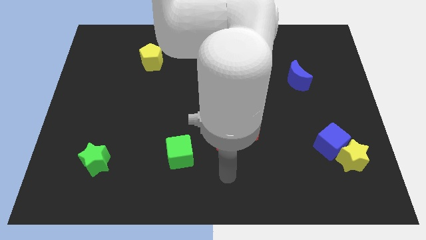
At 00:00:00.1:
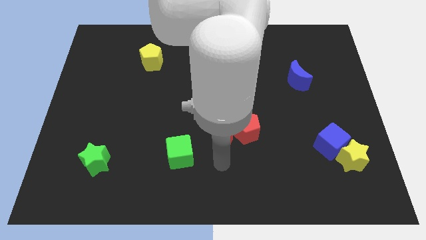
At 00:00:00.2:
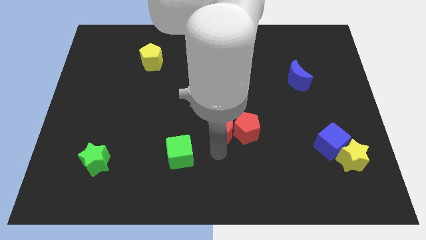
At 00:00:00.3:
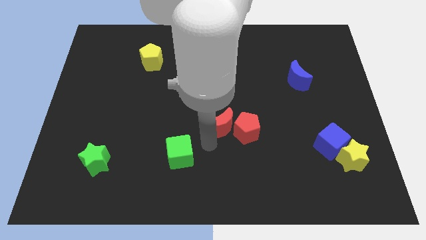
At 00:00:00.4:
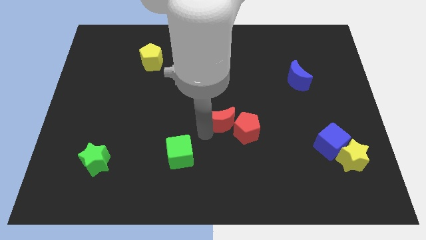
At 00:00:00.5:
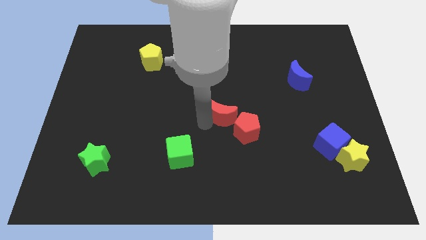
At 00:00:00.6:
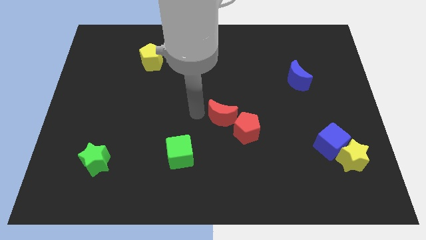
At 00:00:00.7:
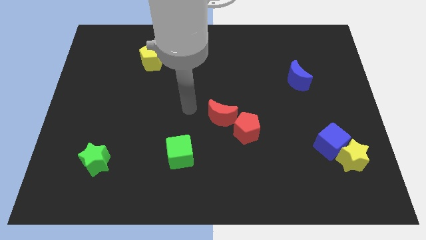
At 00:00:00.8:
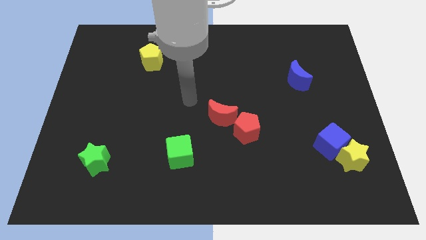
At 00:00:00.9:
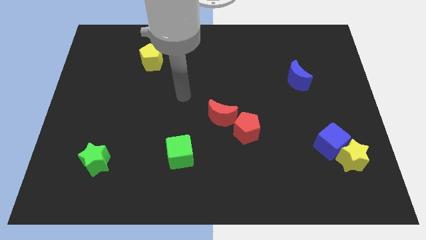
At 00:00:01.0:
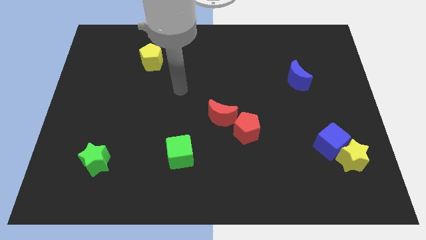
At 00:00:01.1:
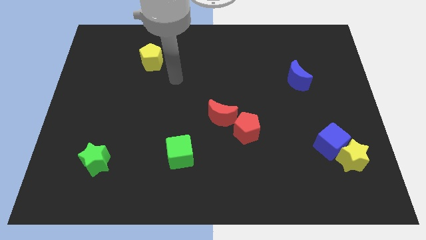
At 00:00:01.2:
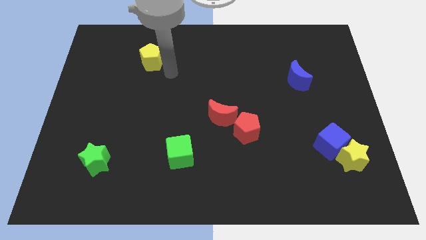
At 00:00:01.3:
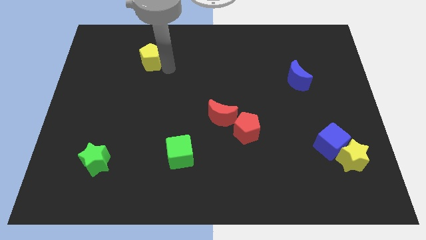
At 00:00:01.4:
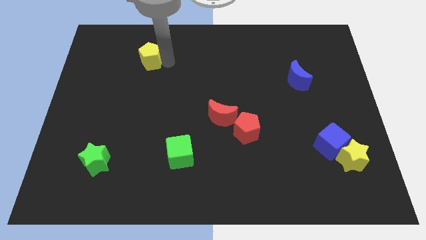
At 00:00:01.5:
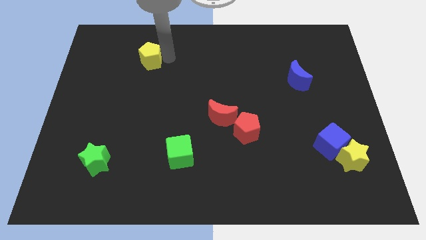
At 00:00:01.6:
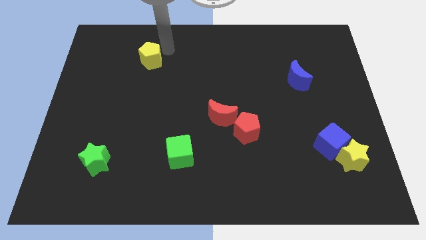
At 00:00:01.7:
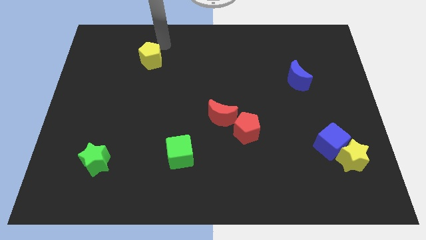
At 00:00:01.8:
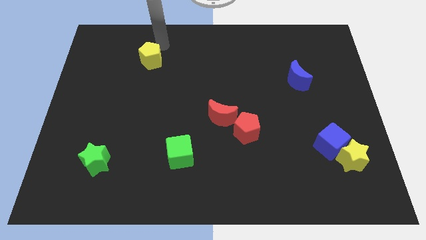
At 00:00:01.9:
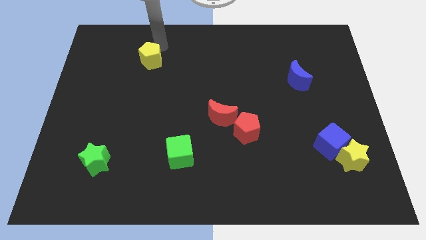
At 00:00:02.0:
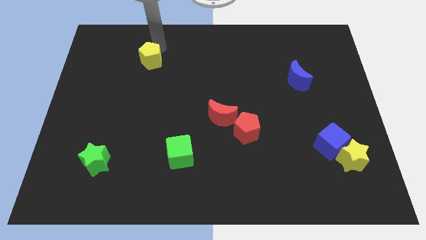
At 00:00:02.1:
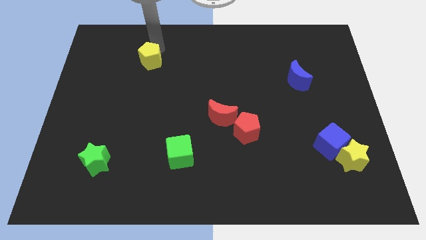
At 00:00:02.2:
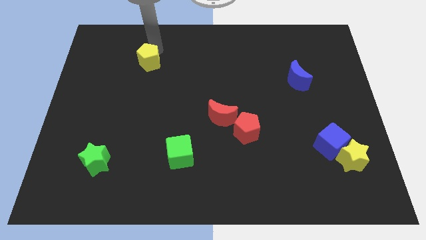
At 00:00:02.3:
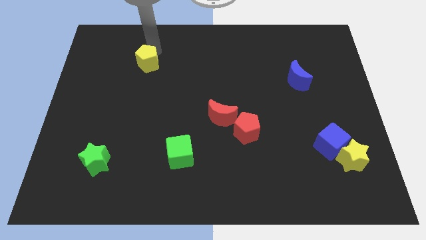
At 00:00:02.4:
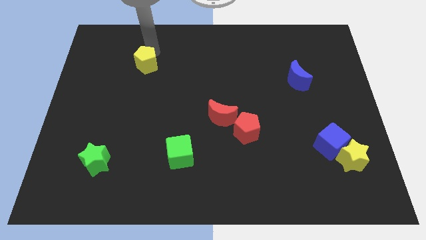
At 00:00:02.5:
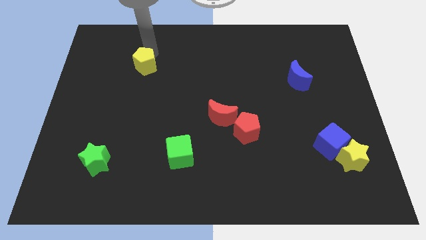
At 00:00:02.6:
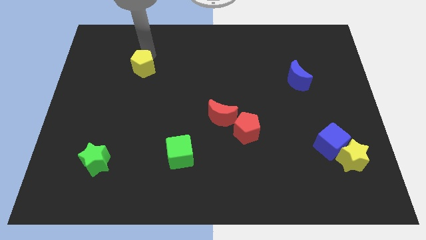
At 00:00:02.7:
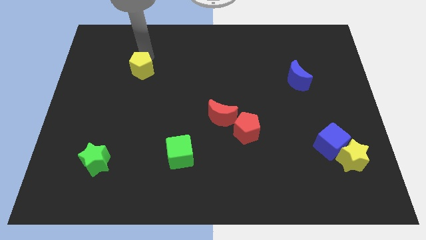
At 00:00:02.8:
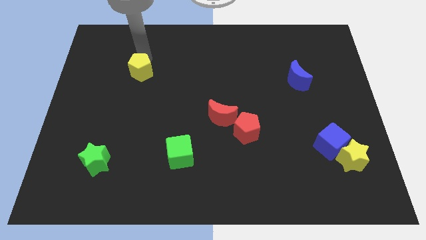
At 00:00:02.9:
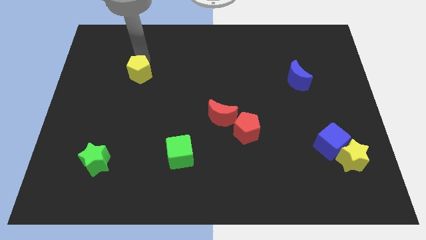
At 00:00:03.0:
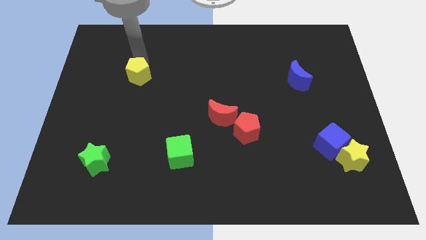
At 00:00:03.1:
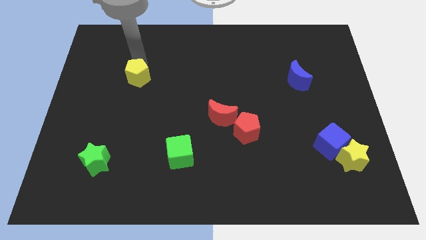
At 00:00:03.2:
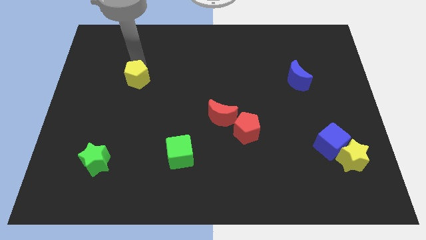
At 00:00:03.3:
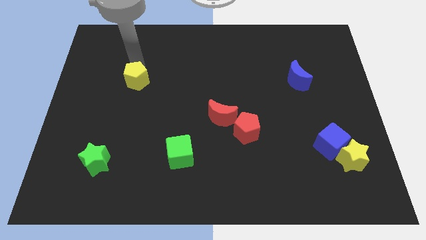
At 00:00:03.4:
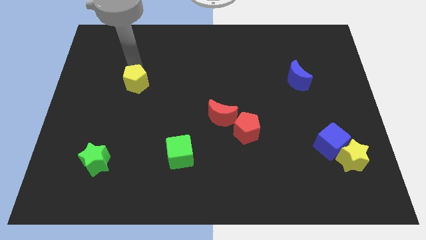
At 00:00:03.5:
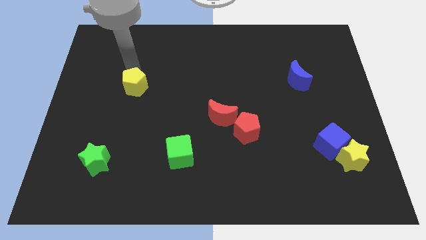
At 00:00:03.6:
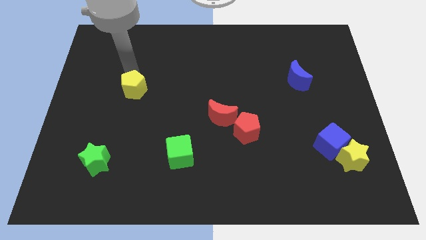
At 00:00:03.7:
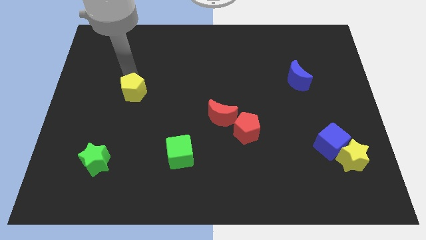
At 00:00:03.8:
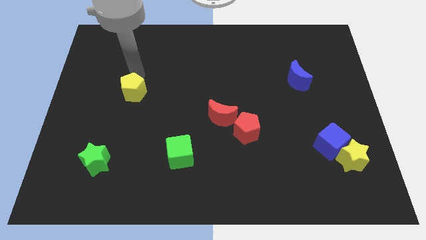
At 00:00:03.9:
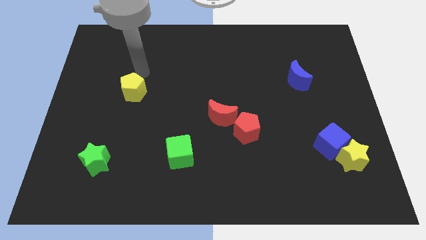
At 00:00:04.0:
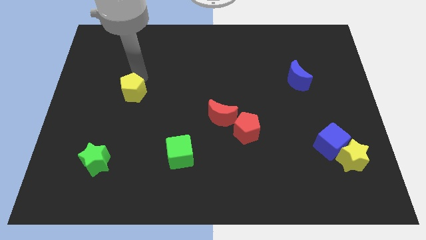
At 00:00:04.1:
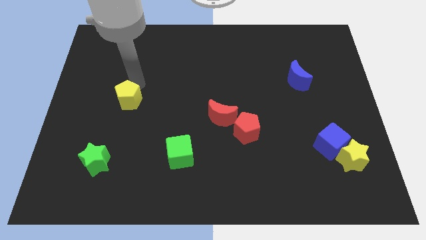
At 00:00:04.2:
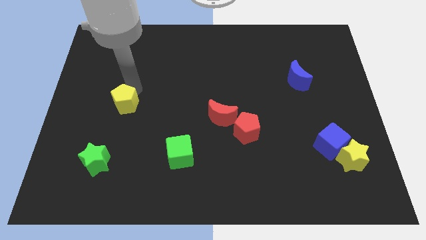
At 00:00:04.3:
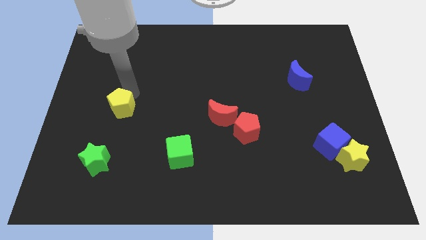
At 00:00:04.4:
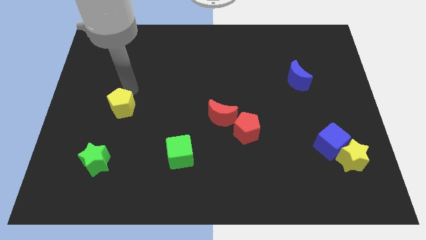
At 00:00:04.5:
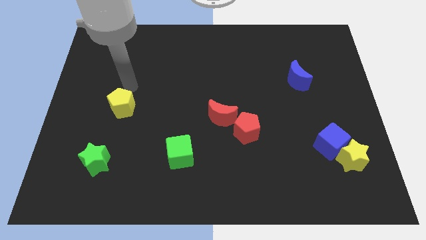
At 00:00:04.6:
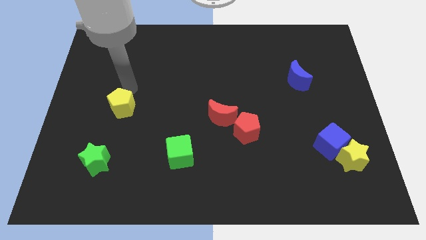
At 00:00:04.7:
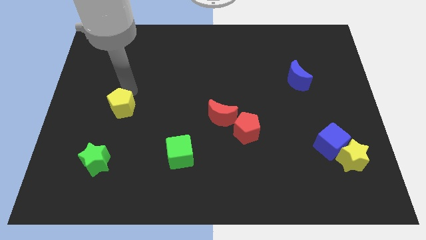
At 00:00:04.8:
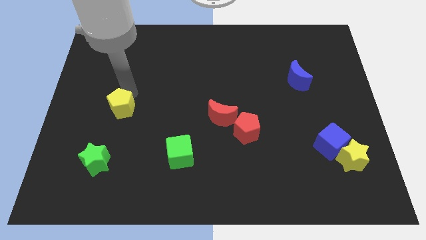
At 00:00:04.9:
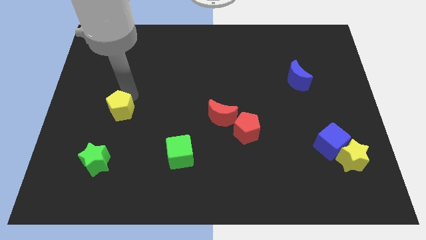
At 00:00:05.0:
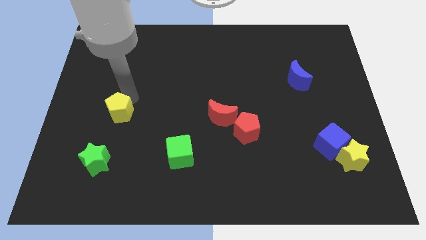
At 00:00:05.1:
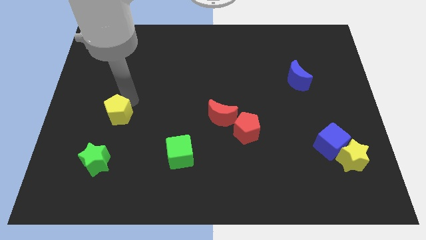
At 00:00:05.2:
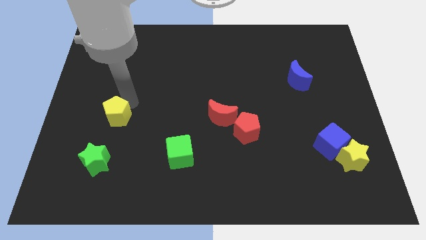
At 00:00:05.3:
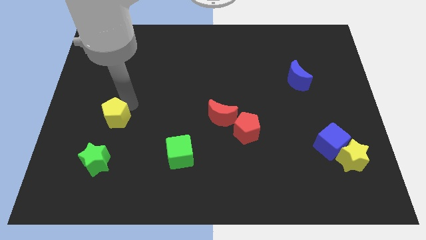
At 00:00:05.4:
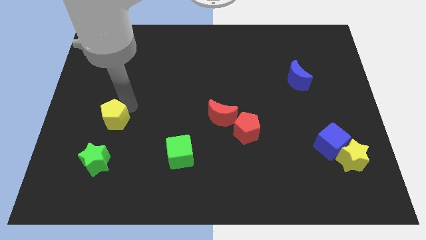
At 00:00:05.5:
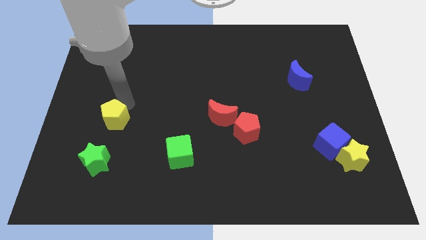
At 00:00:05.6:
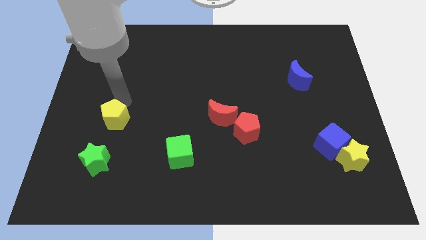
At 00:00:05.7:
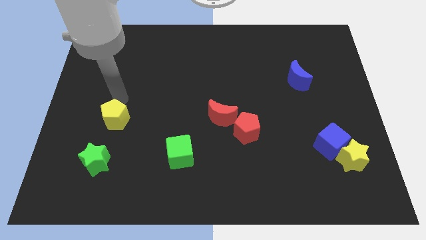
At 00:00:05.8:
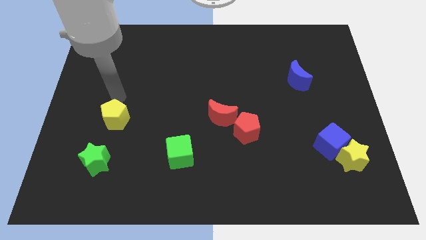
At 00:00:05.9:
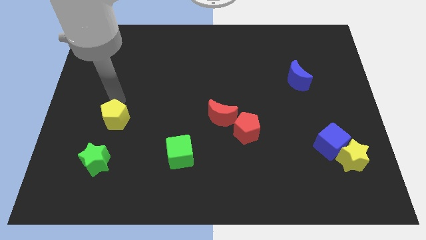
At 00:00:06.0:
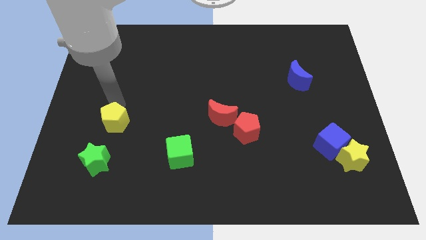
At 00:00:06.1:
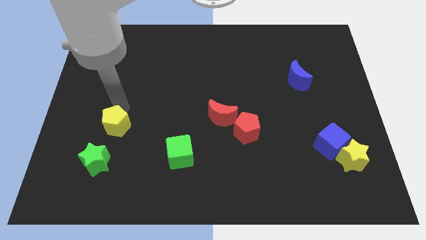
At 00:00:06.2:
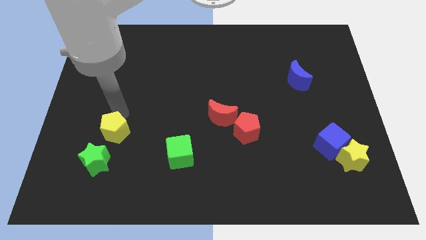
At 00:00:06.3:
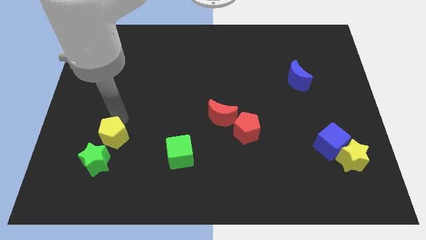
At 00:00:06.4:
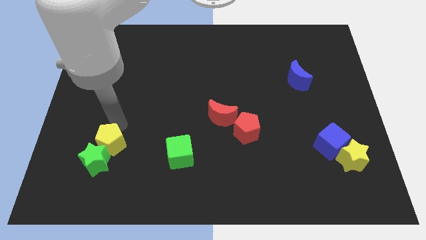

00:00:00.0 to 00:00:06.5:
put the yellow pentagon next to the green star

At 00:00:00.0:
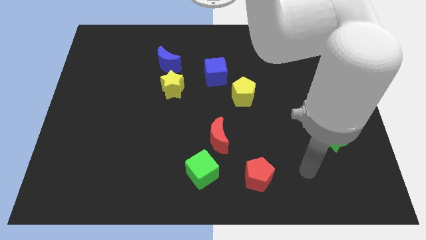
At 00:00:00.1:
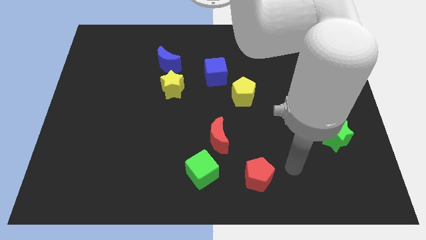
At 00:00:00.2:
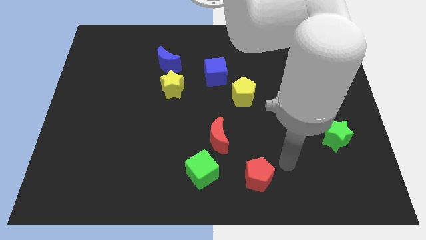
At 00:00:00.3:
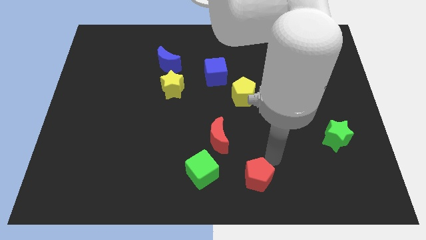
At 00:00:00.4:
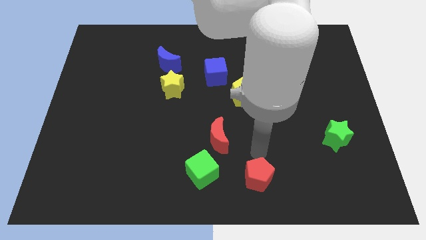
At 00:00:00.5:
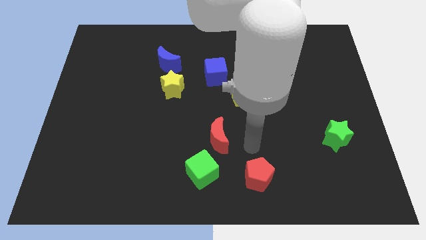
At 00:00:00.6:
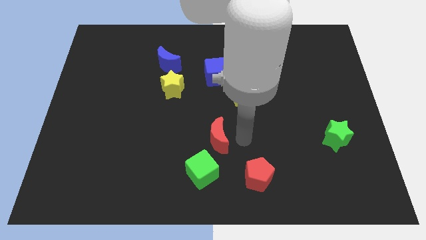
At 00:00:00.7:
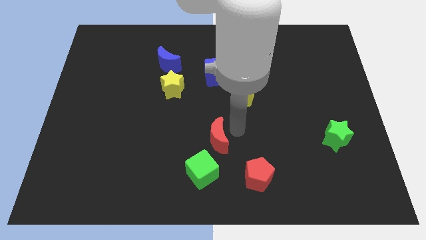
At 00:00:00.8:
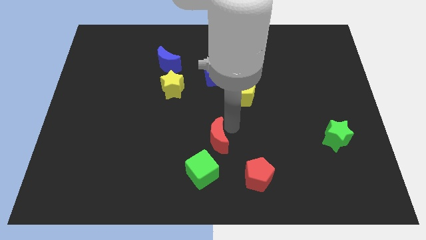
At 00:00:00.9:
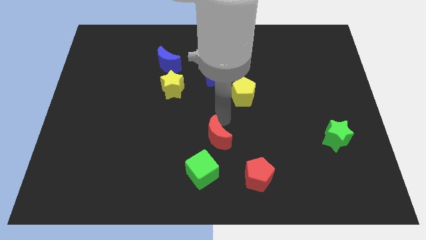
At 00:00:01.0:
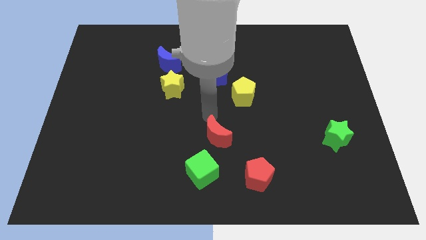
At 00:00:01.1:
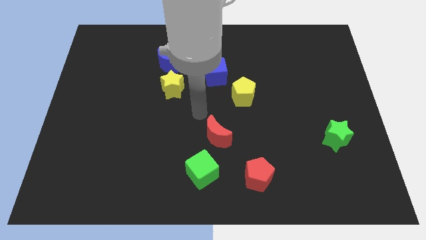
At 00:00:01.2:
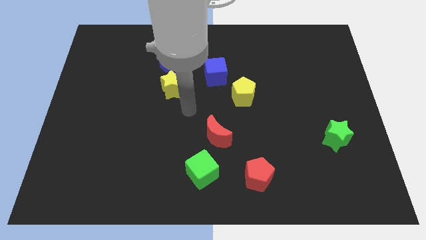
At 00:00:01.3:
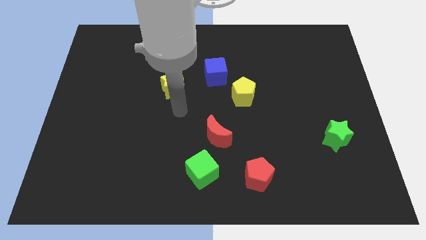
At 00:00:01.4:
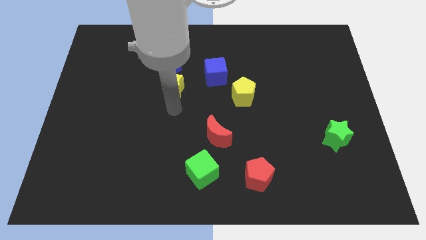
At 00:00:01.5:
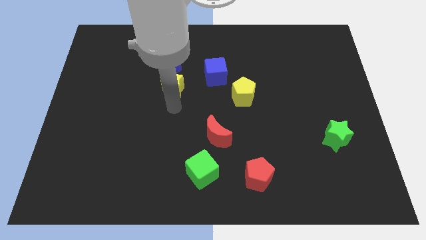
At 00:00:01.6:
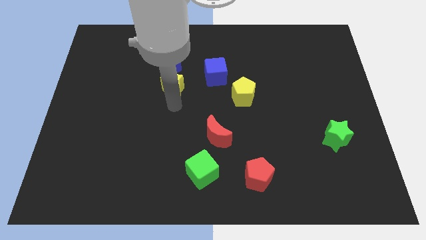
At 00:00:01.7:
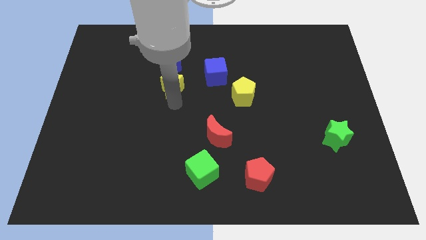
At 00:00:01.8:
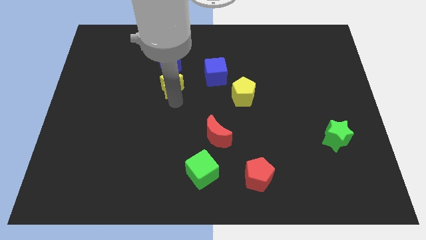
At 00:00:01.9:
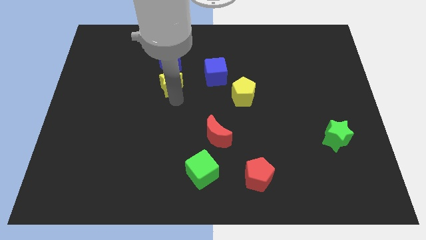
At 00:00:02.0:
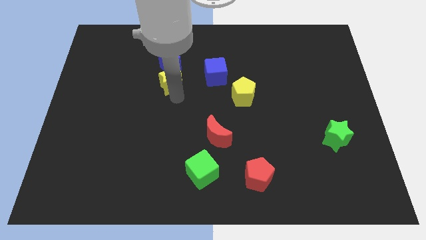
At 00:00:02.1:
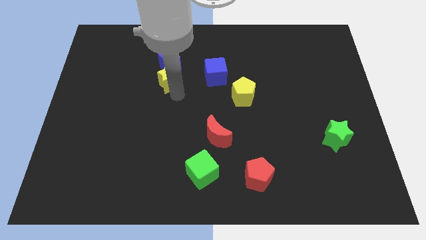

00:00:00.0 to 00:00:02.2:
slide the yellow star to the blue moon
